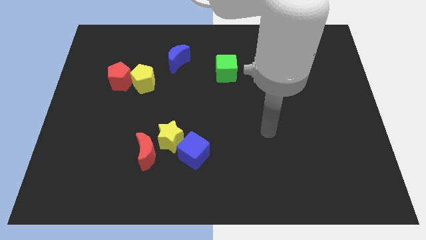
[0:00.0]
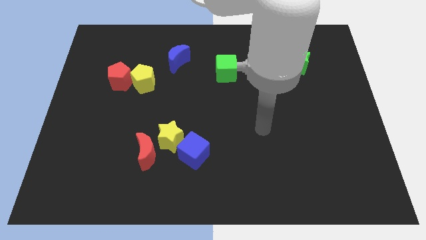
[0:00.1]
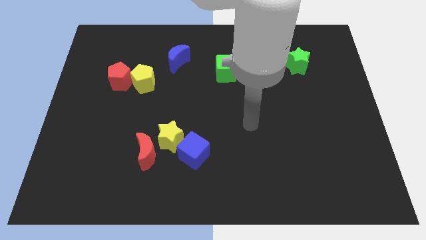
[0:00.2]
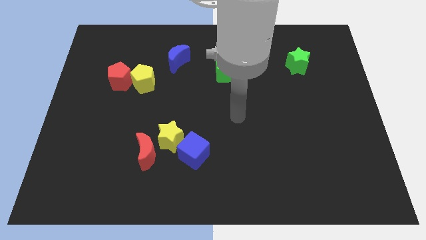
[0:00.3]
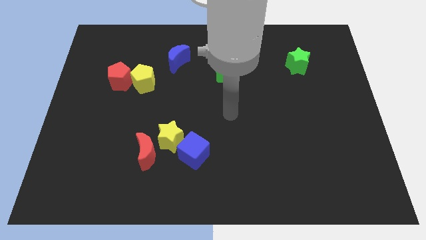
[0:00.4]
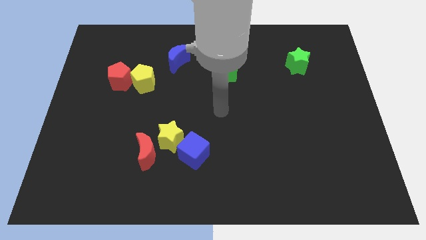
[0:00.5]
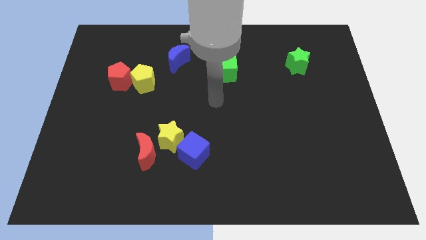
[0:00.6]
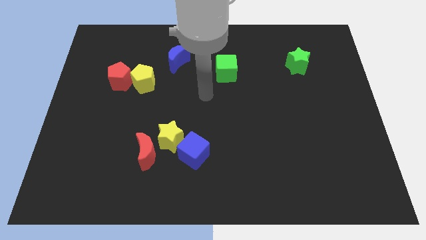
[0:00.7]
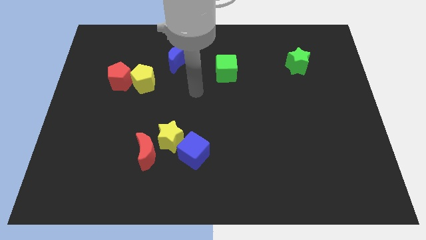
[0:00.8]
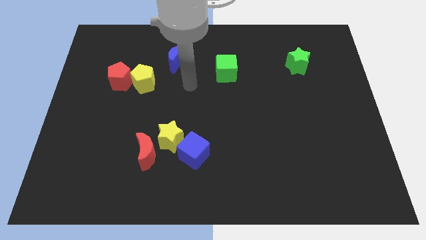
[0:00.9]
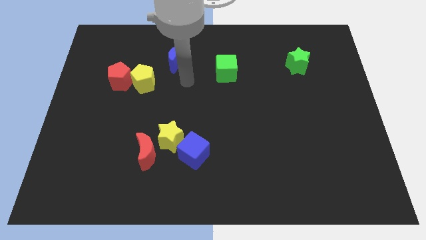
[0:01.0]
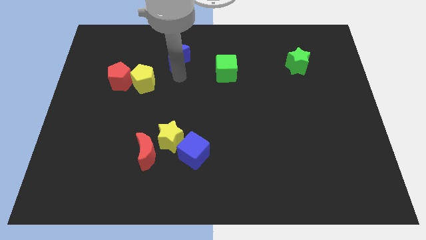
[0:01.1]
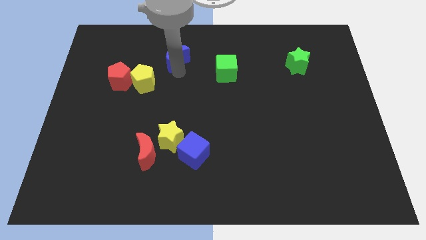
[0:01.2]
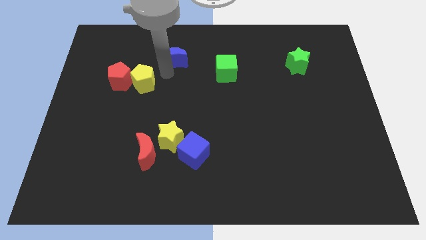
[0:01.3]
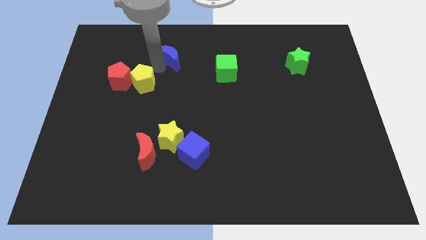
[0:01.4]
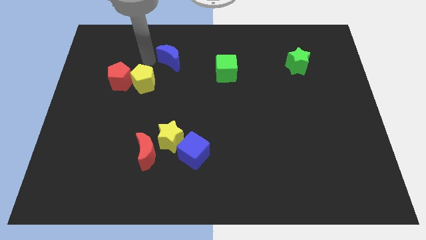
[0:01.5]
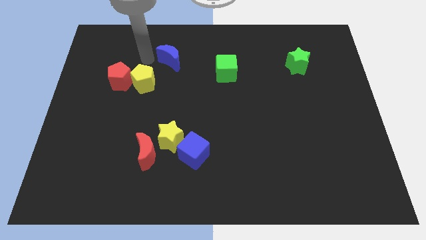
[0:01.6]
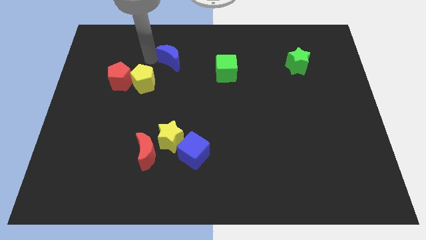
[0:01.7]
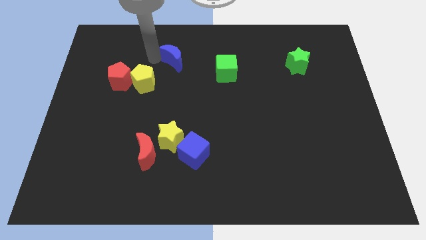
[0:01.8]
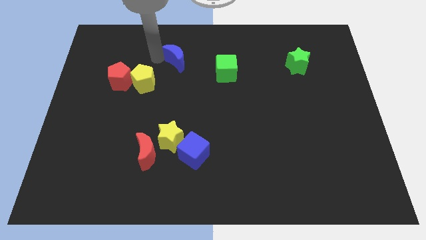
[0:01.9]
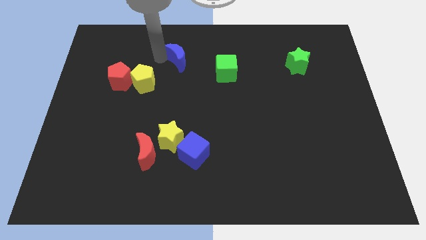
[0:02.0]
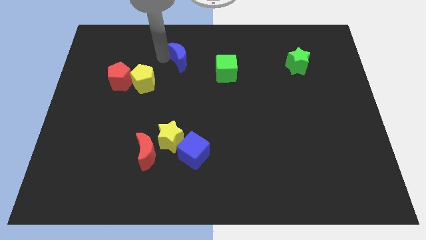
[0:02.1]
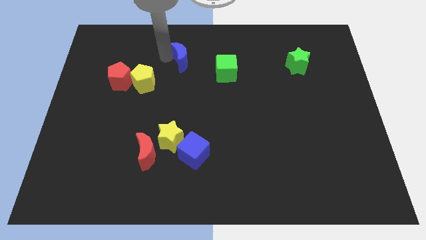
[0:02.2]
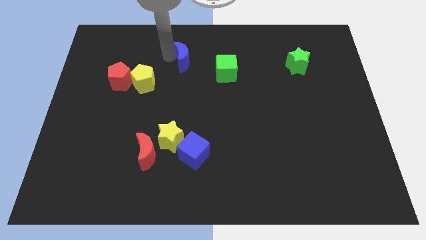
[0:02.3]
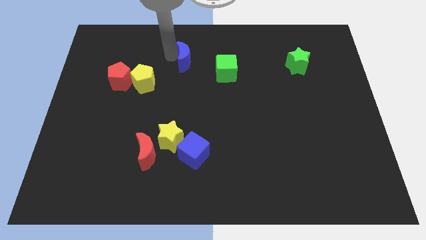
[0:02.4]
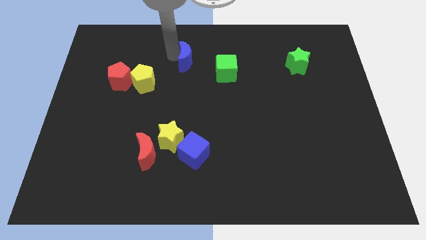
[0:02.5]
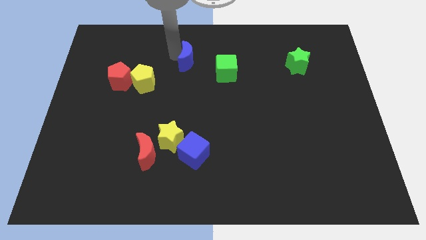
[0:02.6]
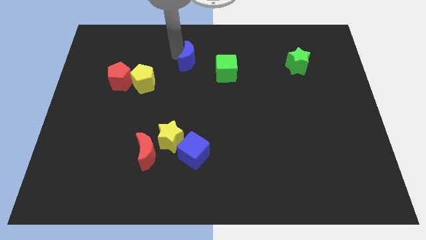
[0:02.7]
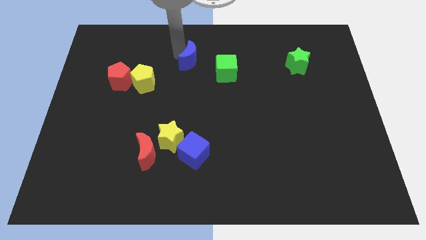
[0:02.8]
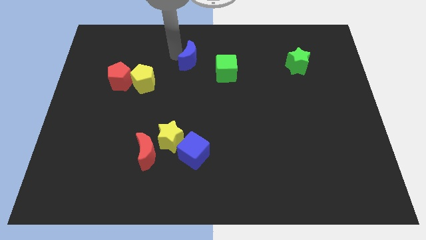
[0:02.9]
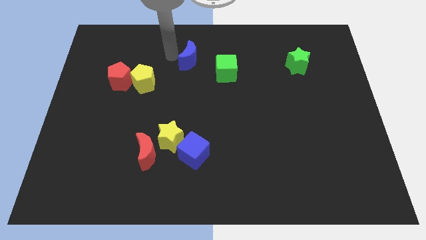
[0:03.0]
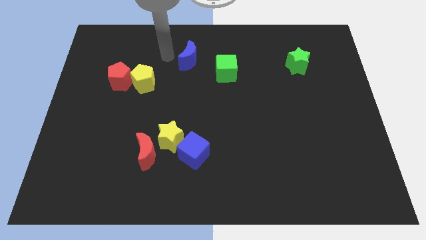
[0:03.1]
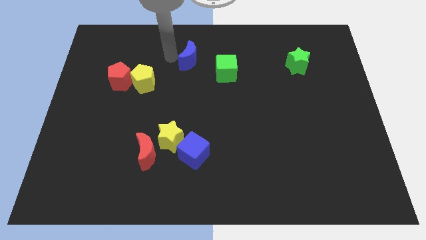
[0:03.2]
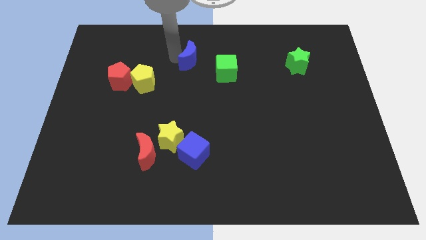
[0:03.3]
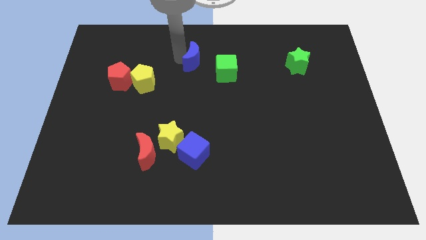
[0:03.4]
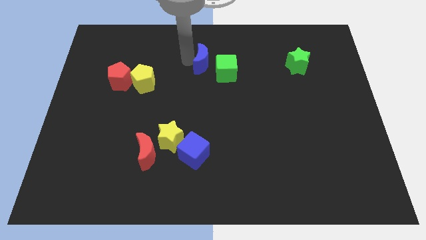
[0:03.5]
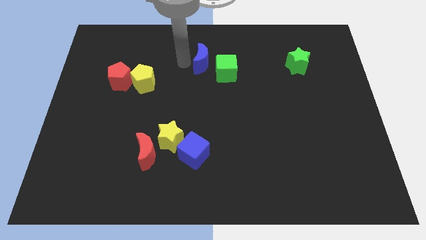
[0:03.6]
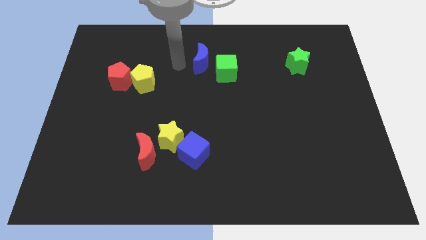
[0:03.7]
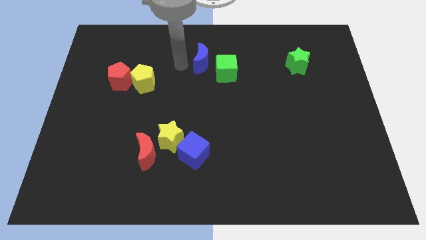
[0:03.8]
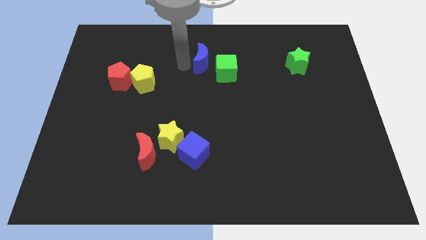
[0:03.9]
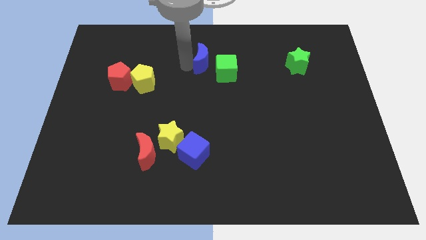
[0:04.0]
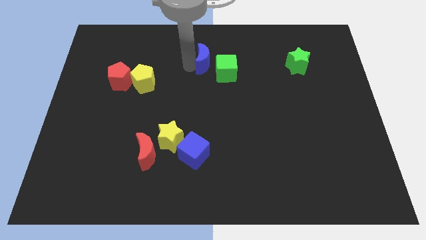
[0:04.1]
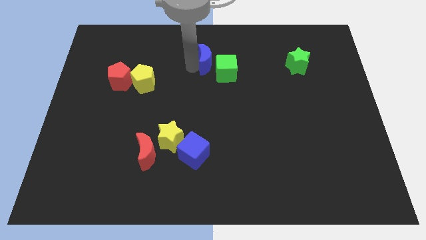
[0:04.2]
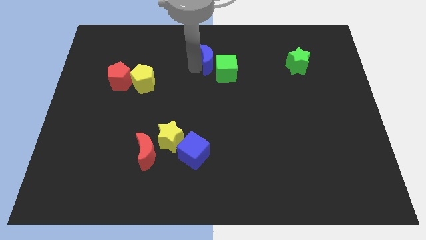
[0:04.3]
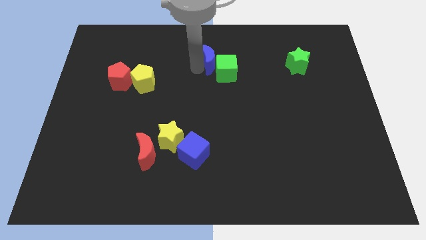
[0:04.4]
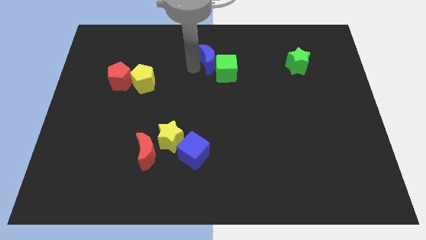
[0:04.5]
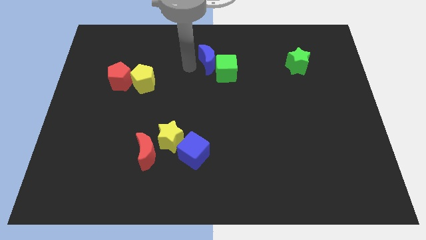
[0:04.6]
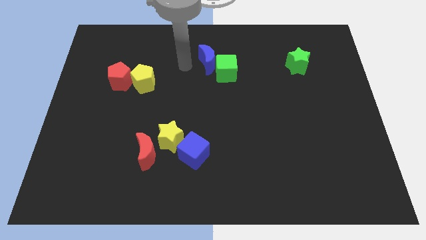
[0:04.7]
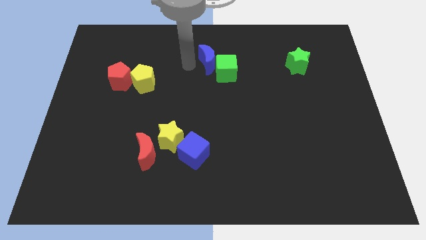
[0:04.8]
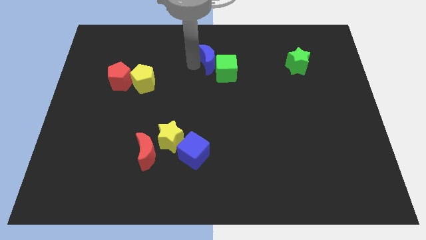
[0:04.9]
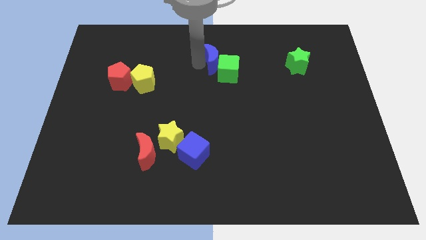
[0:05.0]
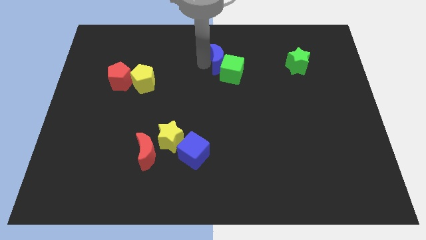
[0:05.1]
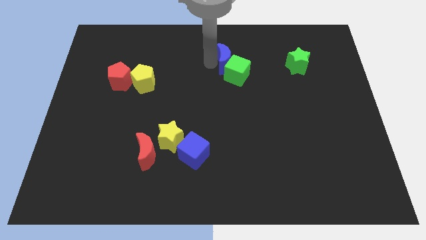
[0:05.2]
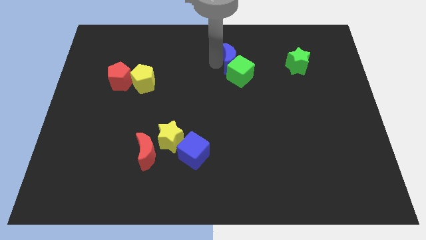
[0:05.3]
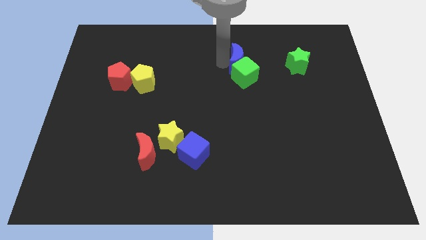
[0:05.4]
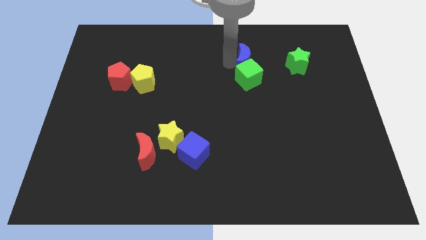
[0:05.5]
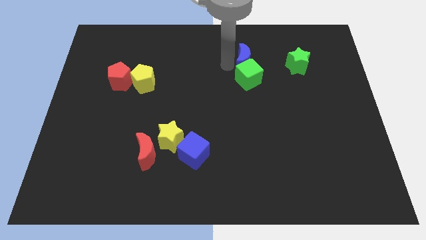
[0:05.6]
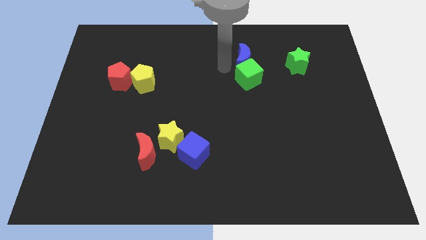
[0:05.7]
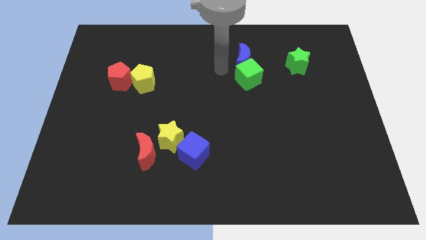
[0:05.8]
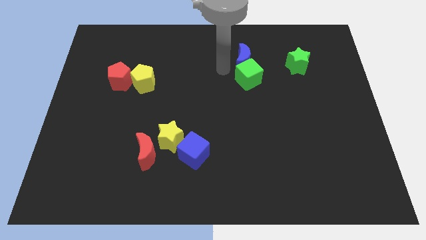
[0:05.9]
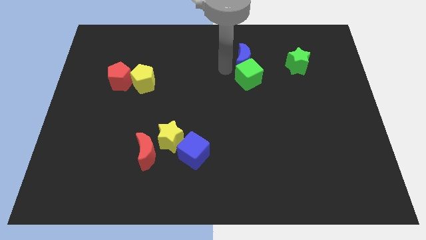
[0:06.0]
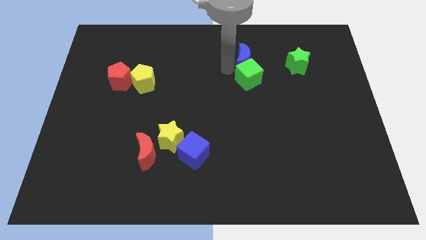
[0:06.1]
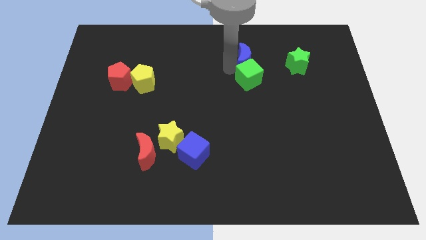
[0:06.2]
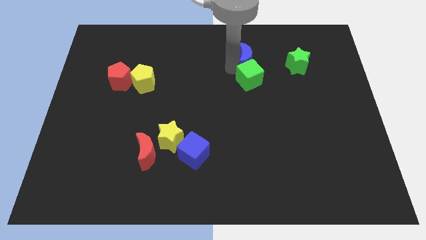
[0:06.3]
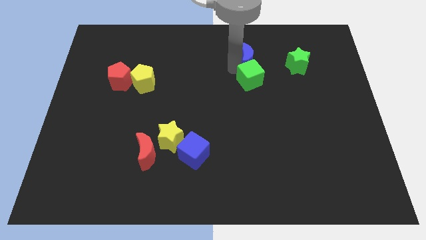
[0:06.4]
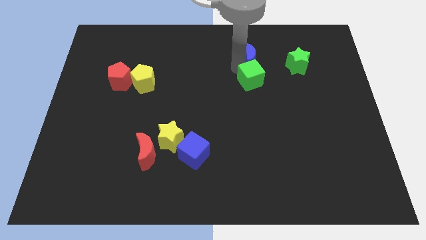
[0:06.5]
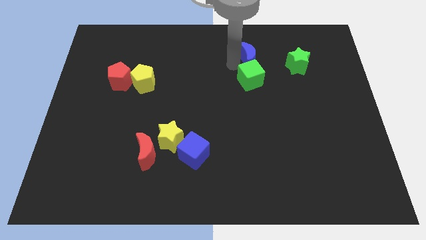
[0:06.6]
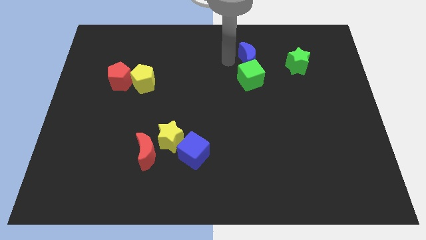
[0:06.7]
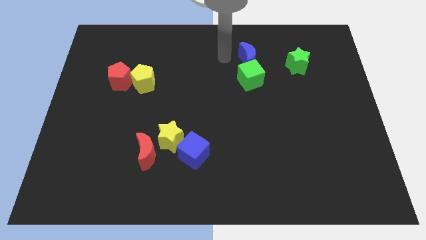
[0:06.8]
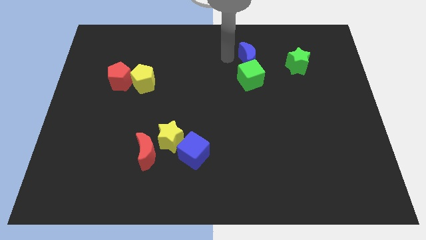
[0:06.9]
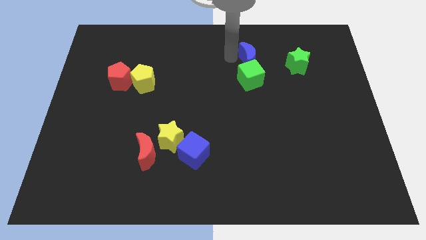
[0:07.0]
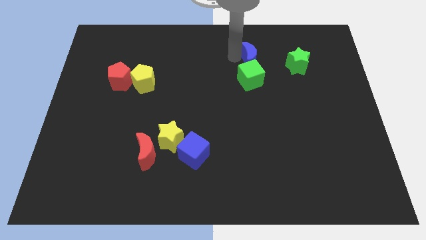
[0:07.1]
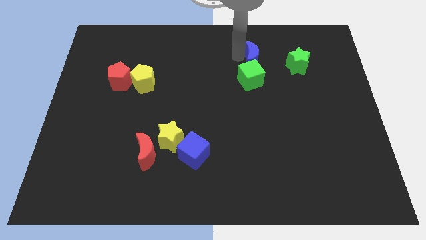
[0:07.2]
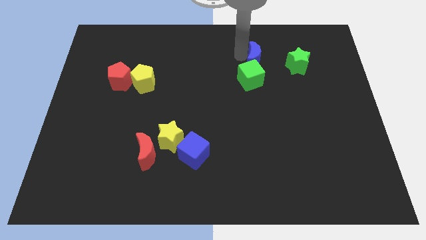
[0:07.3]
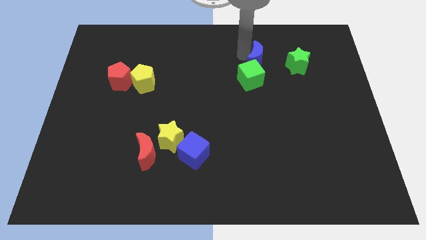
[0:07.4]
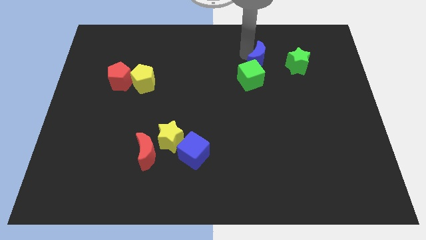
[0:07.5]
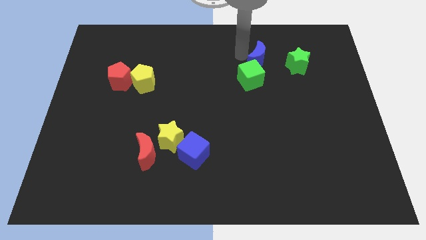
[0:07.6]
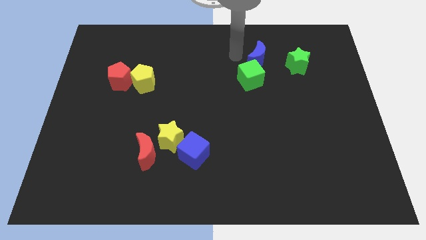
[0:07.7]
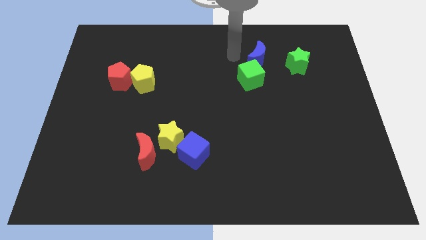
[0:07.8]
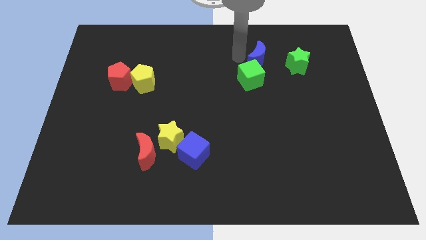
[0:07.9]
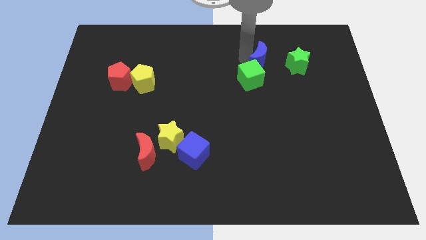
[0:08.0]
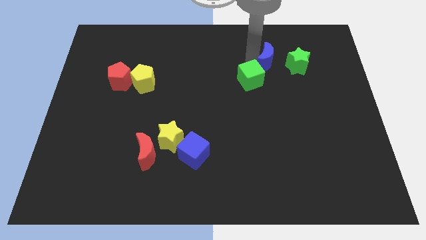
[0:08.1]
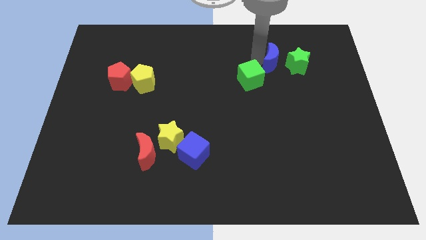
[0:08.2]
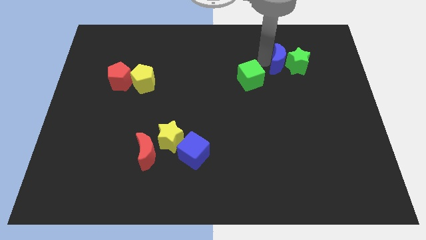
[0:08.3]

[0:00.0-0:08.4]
put the blue moon towards the green star
